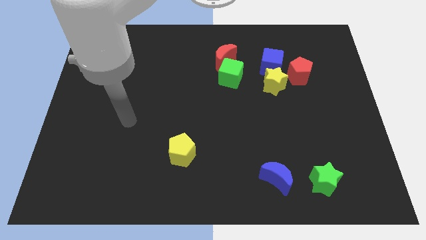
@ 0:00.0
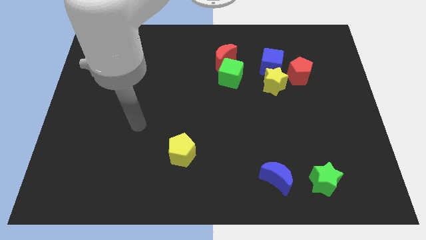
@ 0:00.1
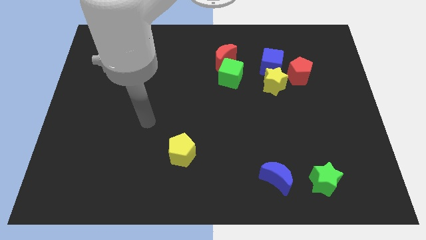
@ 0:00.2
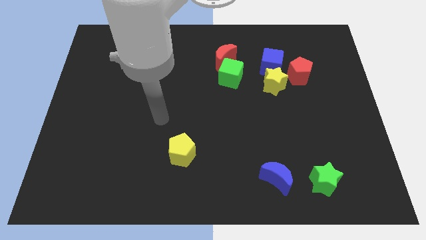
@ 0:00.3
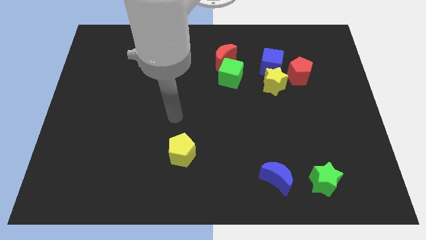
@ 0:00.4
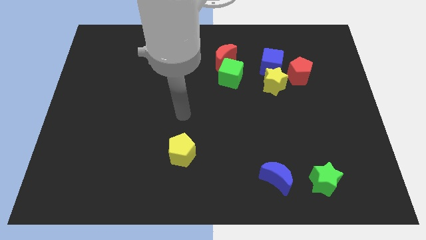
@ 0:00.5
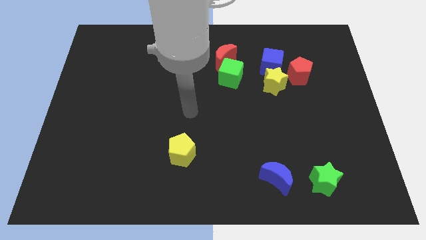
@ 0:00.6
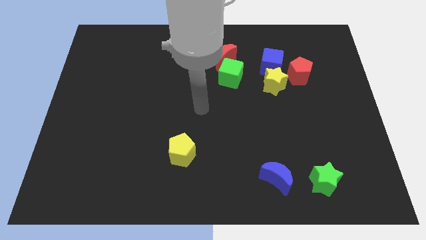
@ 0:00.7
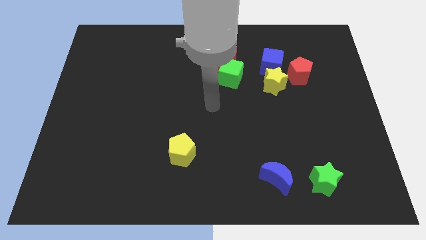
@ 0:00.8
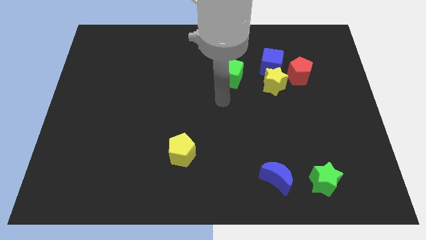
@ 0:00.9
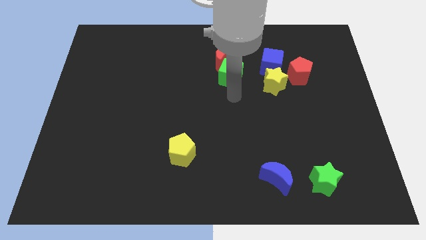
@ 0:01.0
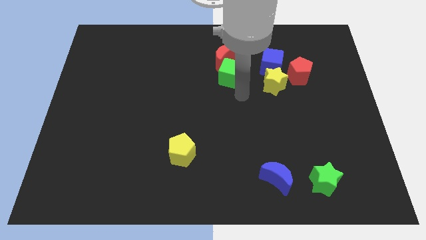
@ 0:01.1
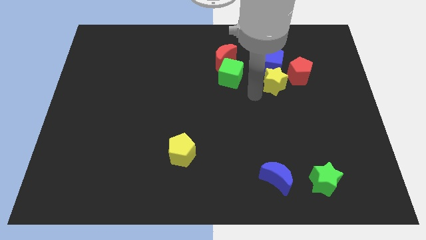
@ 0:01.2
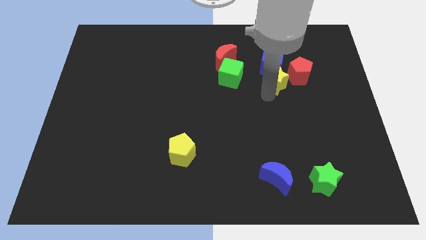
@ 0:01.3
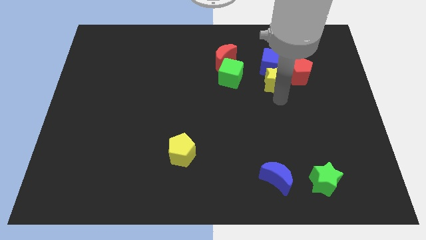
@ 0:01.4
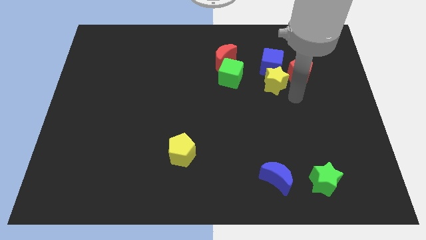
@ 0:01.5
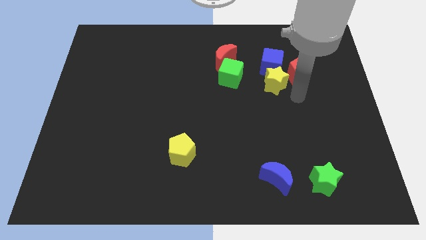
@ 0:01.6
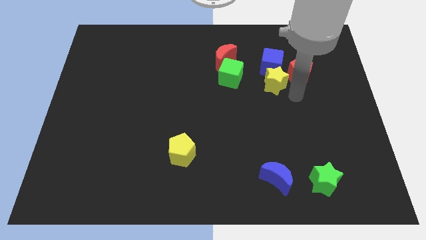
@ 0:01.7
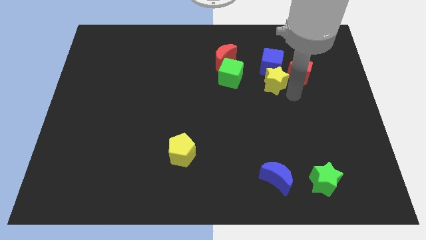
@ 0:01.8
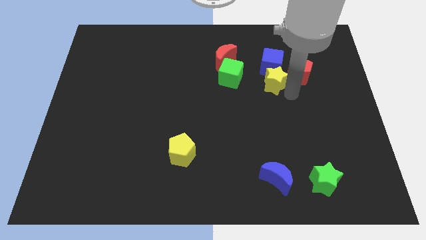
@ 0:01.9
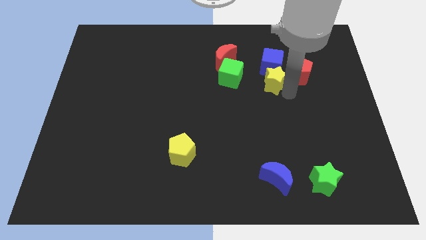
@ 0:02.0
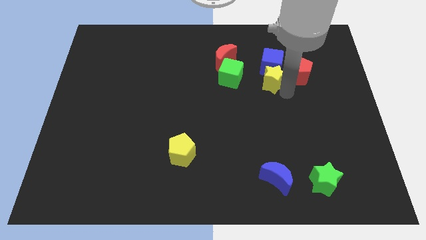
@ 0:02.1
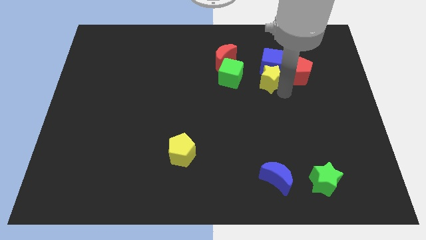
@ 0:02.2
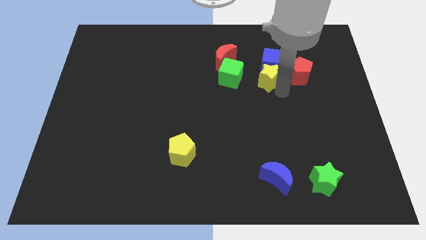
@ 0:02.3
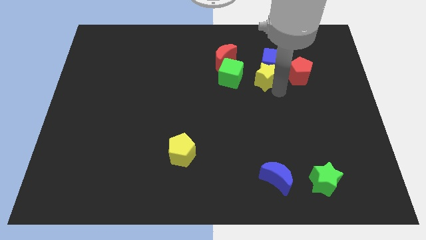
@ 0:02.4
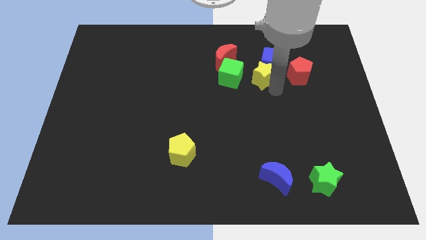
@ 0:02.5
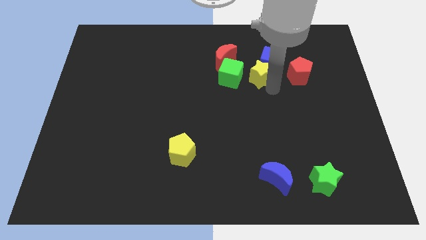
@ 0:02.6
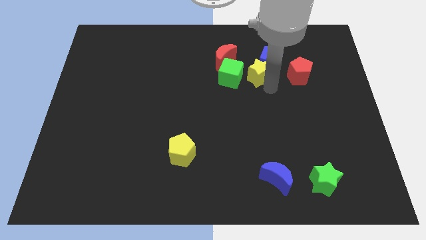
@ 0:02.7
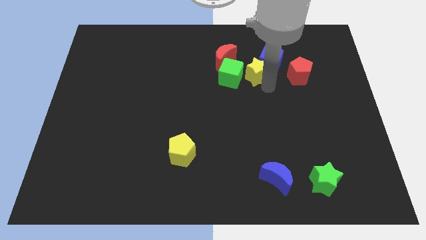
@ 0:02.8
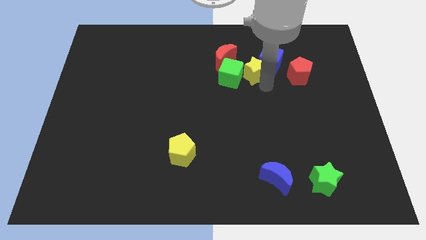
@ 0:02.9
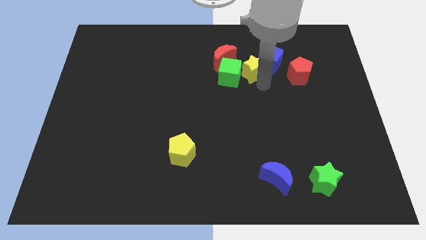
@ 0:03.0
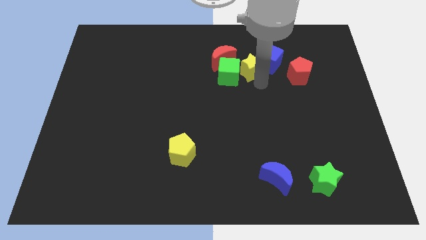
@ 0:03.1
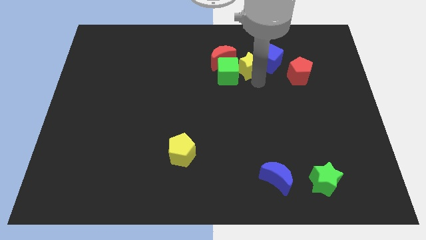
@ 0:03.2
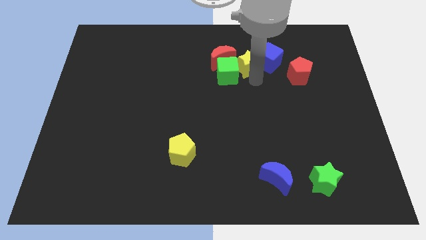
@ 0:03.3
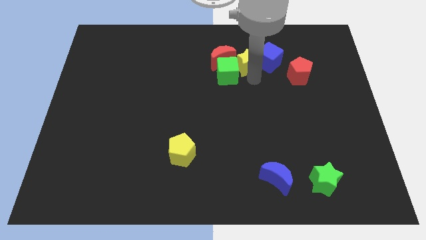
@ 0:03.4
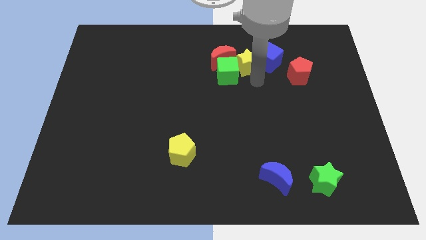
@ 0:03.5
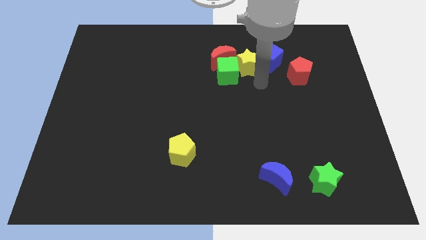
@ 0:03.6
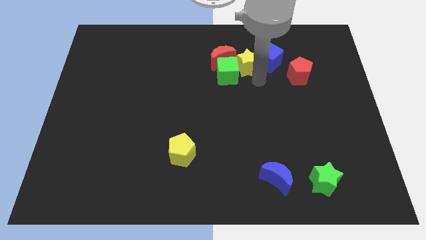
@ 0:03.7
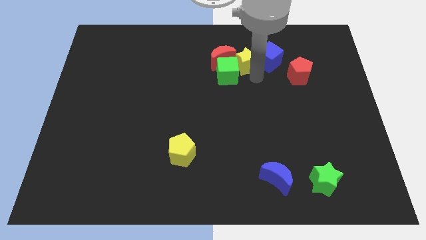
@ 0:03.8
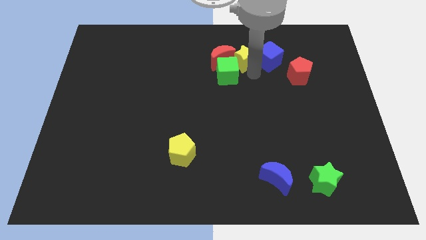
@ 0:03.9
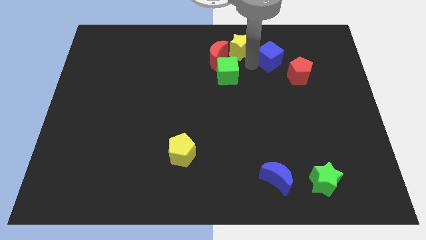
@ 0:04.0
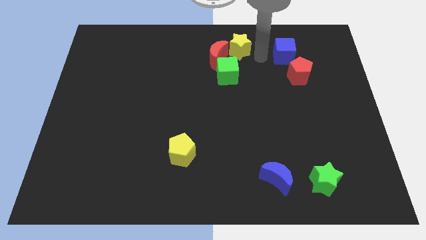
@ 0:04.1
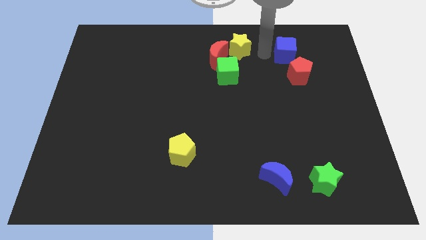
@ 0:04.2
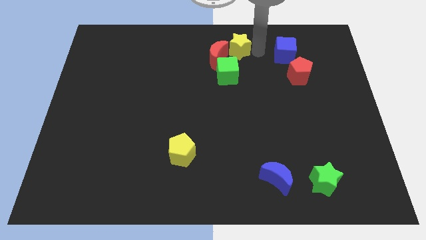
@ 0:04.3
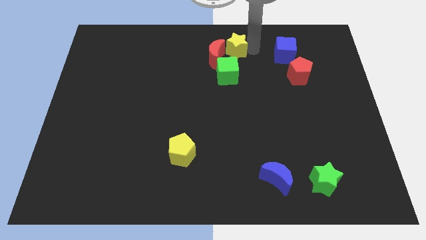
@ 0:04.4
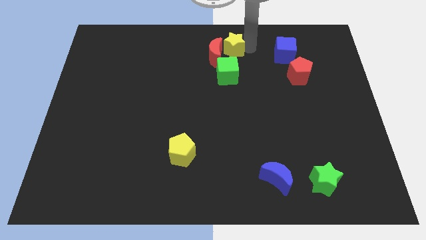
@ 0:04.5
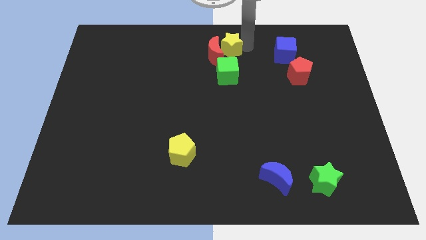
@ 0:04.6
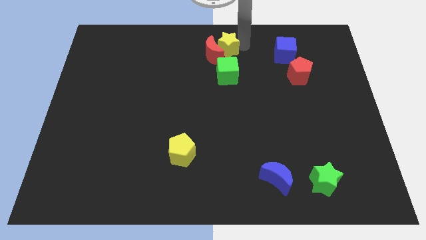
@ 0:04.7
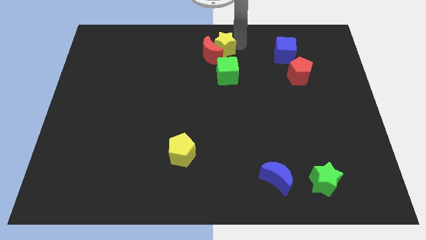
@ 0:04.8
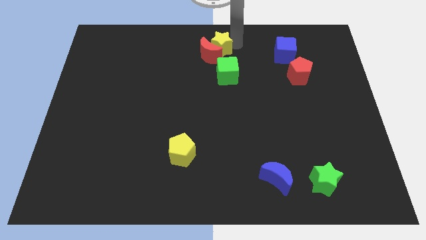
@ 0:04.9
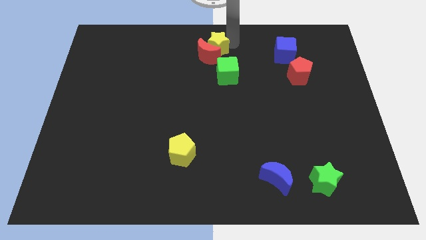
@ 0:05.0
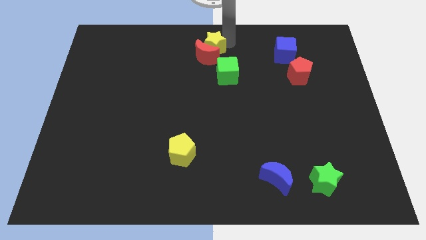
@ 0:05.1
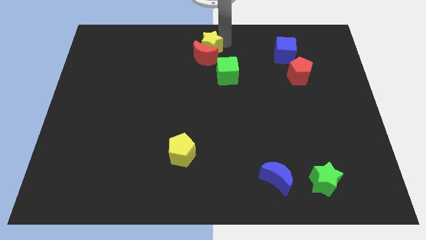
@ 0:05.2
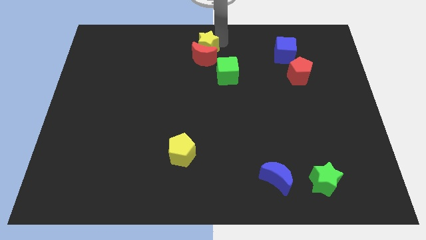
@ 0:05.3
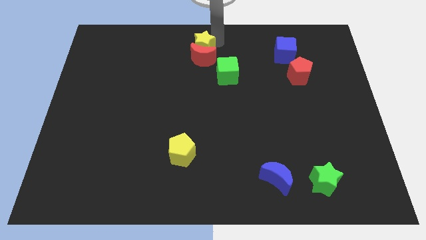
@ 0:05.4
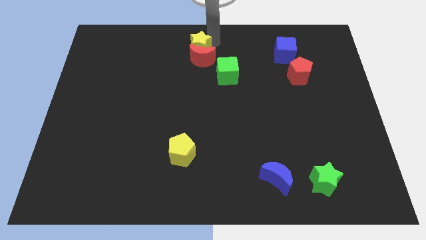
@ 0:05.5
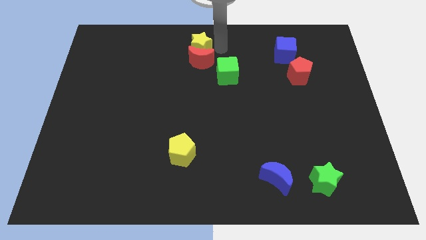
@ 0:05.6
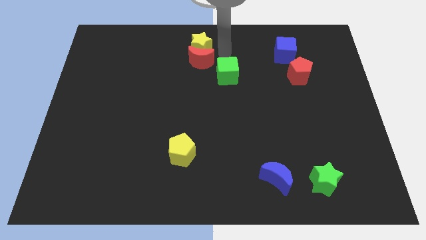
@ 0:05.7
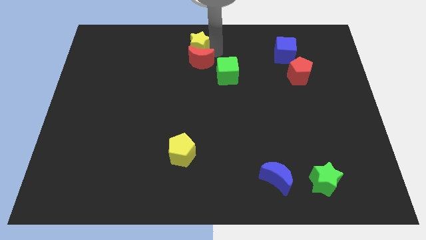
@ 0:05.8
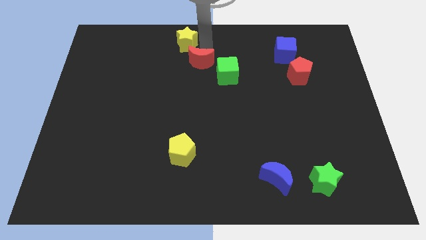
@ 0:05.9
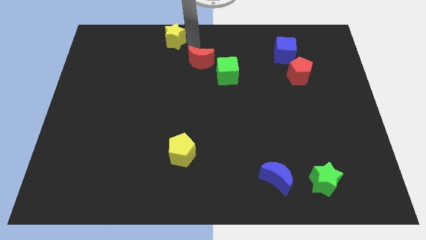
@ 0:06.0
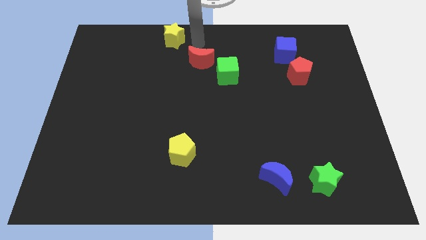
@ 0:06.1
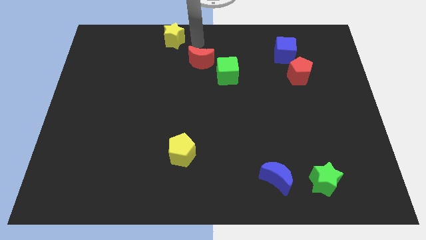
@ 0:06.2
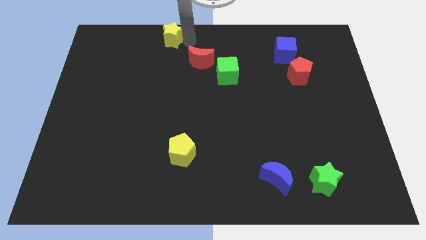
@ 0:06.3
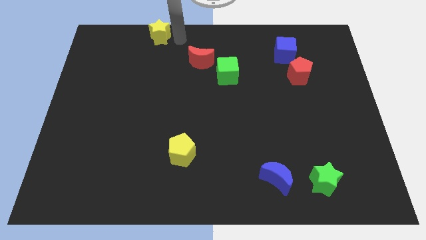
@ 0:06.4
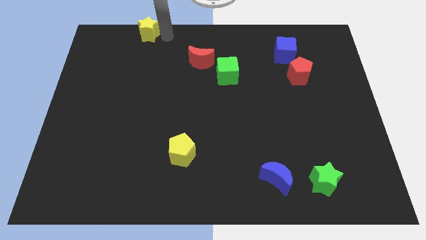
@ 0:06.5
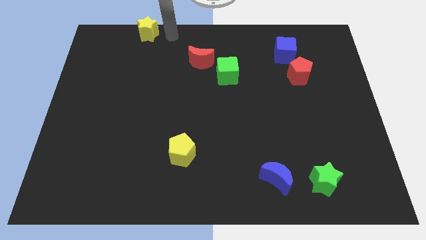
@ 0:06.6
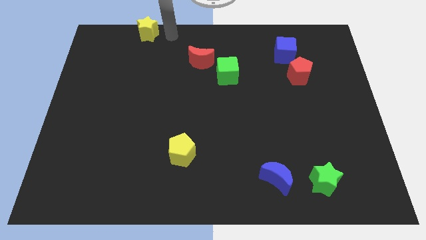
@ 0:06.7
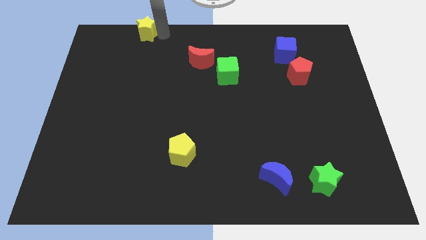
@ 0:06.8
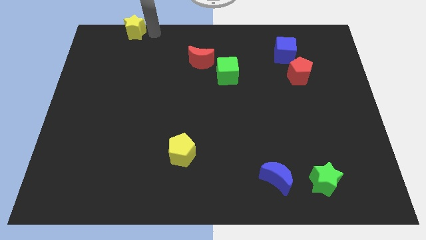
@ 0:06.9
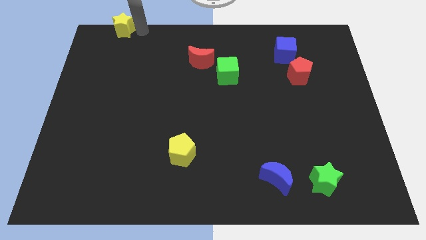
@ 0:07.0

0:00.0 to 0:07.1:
put the yellow star to the top left corner
